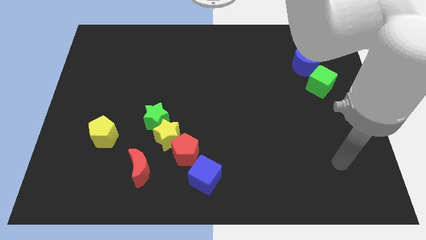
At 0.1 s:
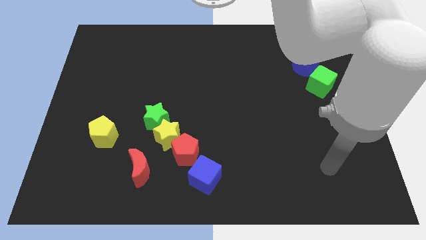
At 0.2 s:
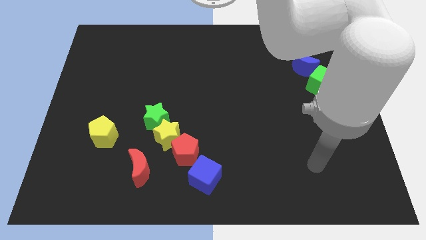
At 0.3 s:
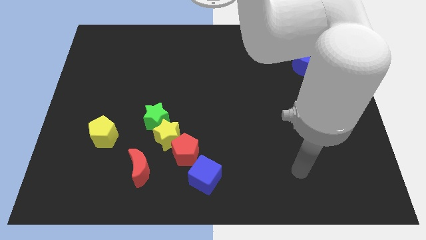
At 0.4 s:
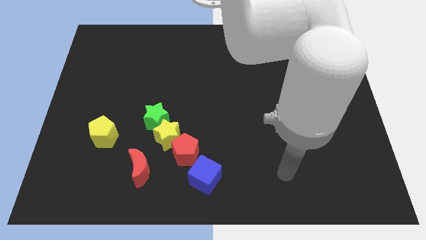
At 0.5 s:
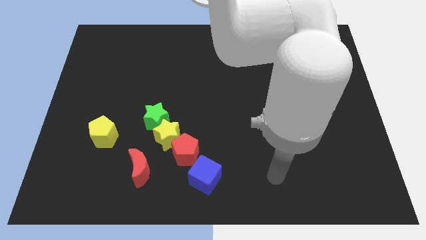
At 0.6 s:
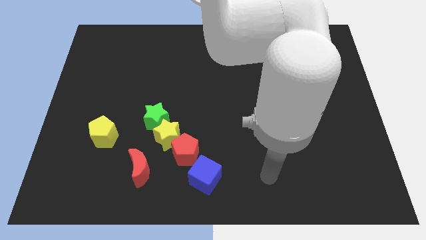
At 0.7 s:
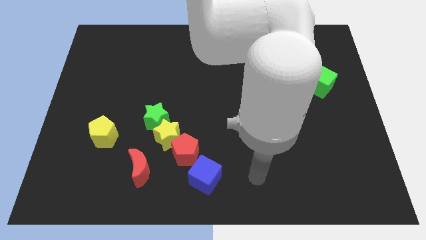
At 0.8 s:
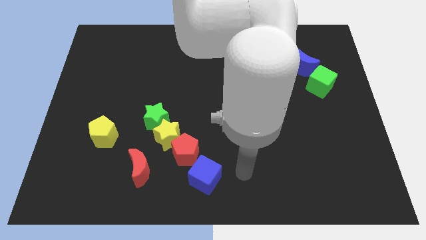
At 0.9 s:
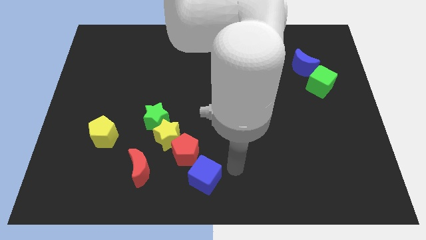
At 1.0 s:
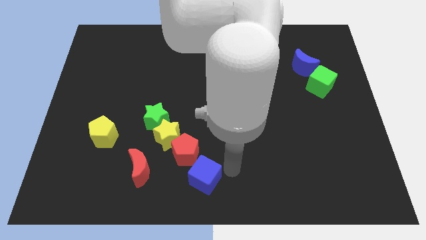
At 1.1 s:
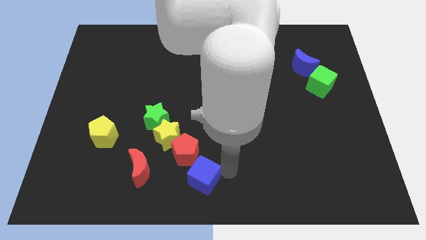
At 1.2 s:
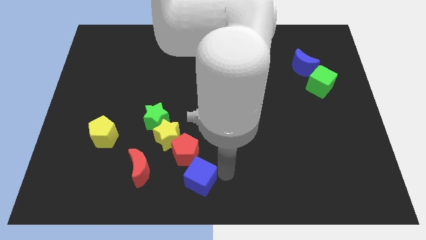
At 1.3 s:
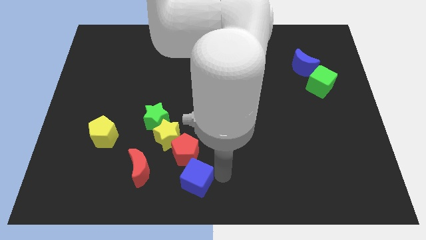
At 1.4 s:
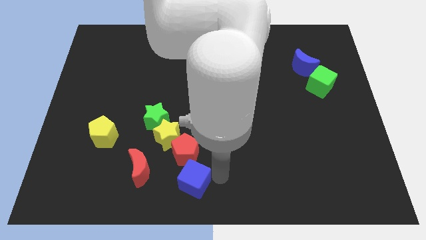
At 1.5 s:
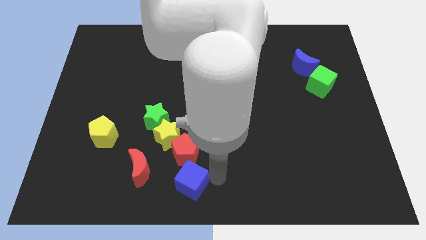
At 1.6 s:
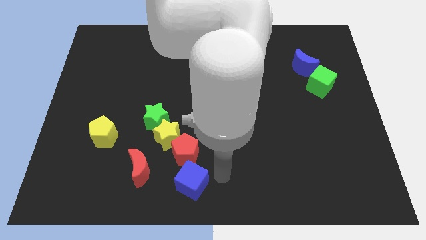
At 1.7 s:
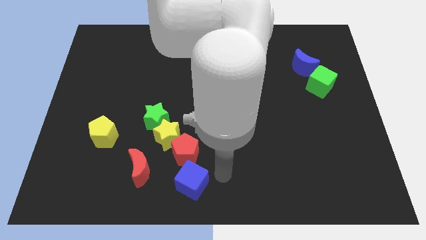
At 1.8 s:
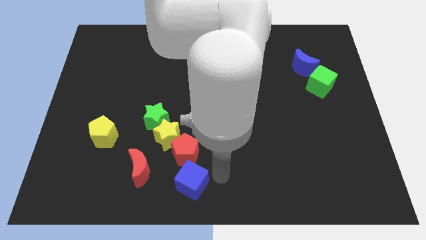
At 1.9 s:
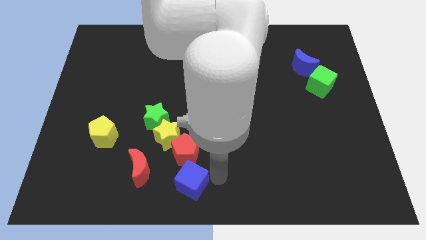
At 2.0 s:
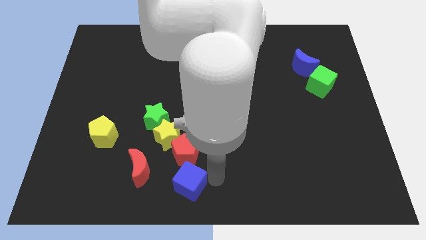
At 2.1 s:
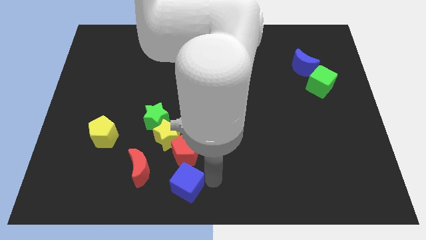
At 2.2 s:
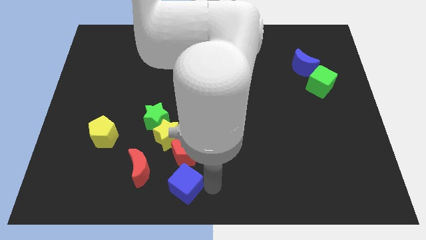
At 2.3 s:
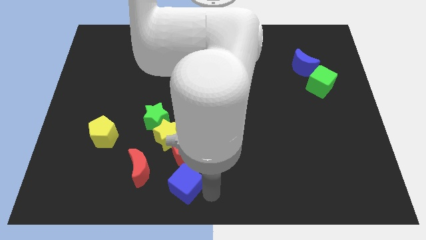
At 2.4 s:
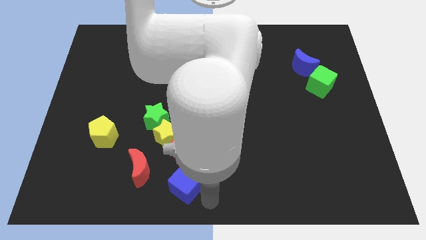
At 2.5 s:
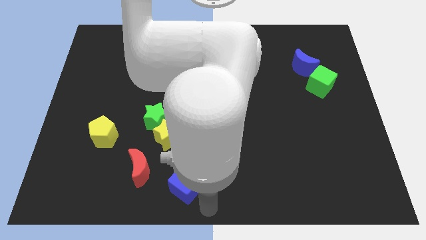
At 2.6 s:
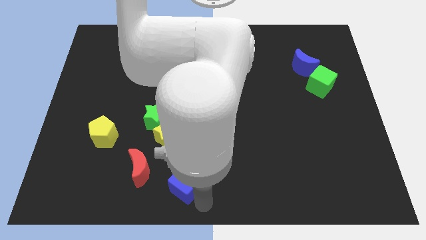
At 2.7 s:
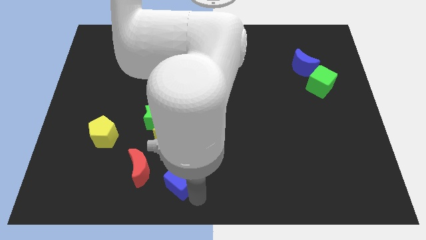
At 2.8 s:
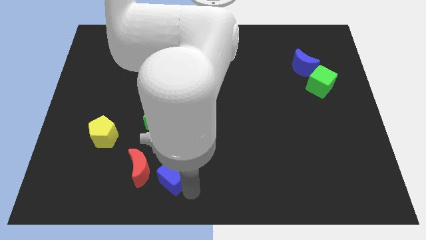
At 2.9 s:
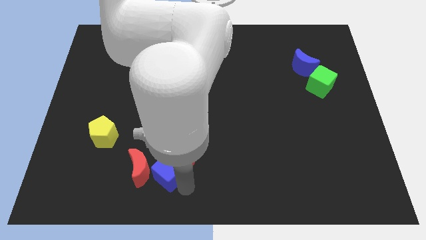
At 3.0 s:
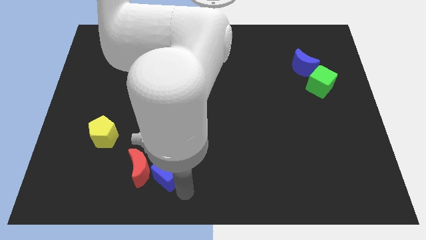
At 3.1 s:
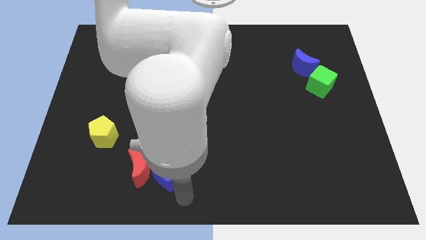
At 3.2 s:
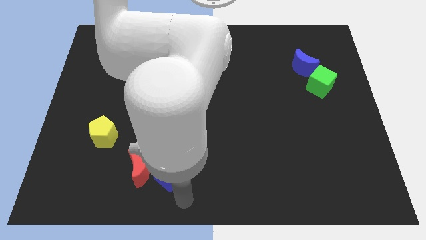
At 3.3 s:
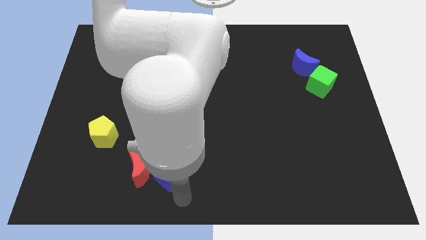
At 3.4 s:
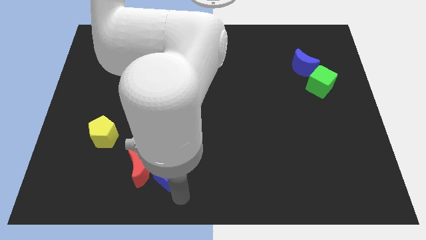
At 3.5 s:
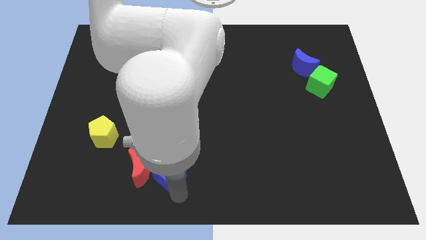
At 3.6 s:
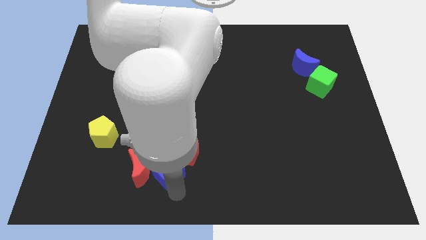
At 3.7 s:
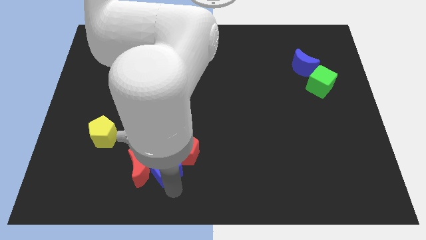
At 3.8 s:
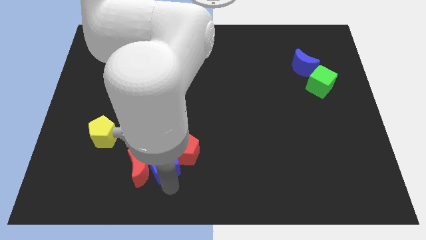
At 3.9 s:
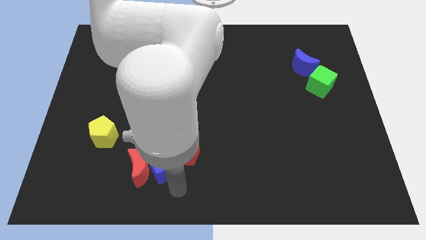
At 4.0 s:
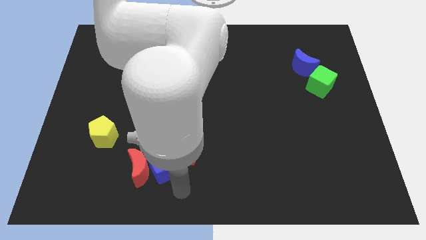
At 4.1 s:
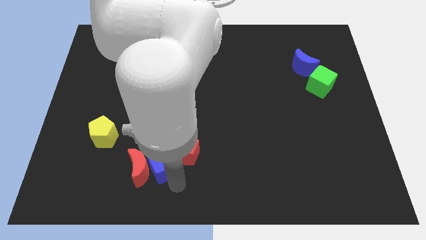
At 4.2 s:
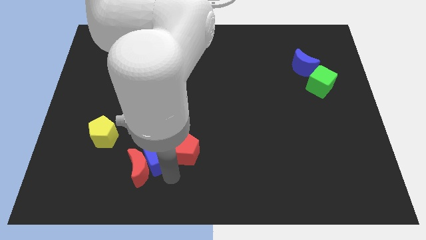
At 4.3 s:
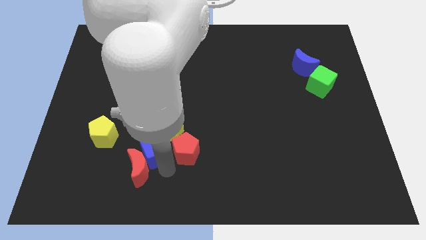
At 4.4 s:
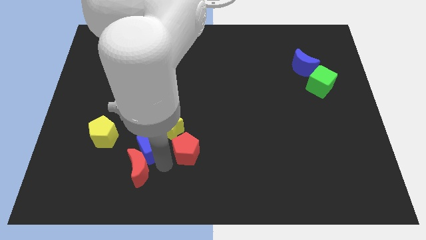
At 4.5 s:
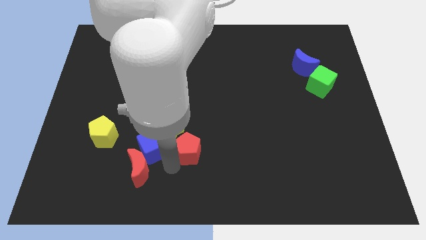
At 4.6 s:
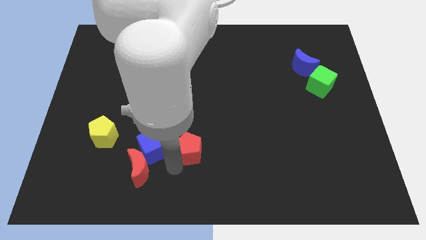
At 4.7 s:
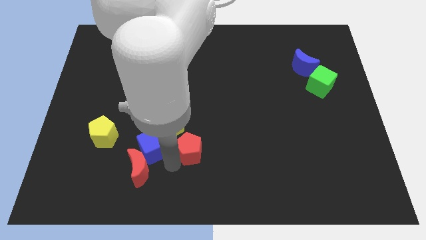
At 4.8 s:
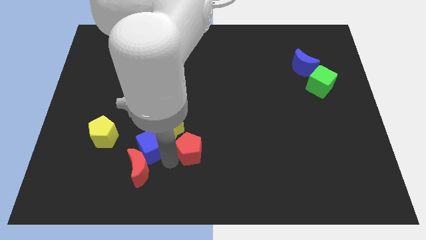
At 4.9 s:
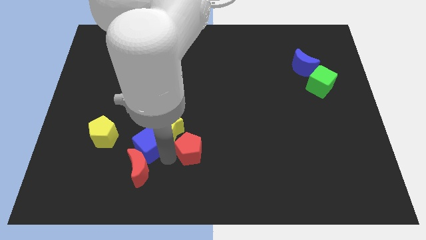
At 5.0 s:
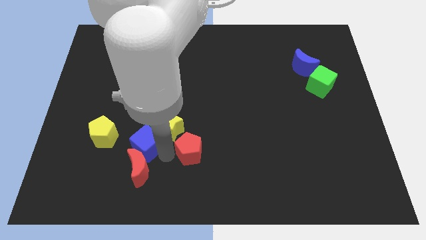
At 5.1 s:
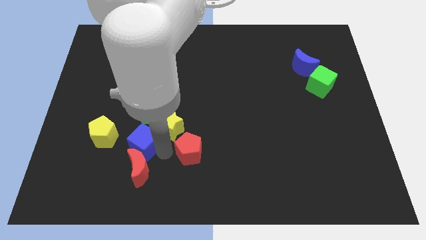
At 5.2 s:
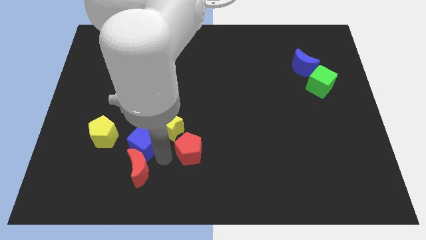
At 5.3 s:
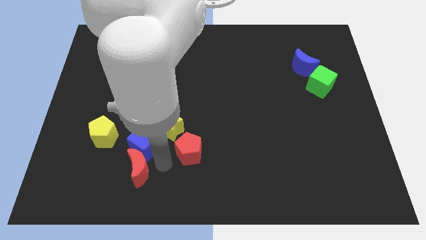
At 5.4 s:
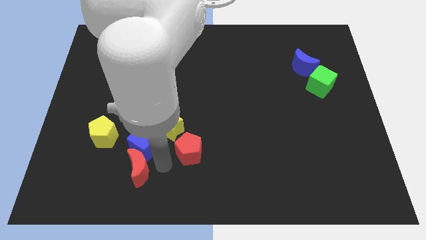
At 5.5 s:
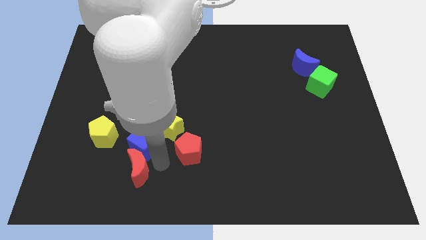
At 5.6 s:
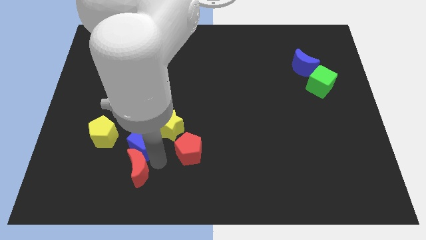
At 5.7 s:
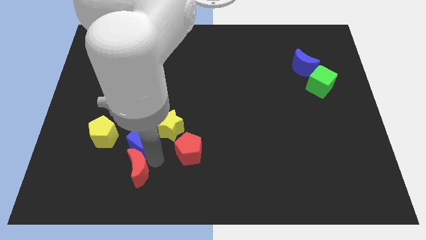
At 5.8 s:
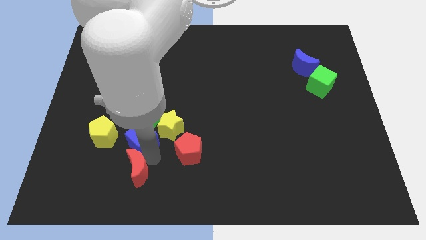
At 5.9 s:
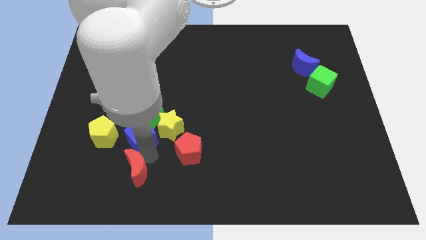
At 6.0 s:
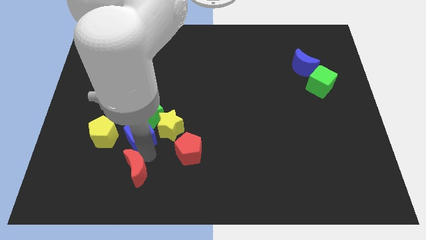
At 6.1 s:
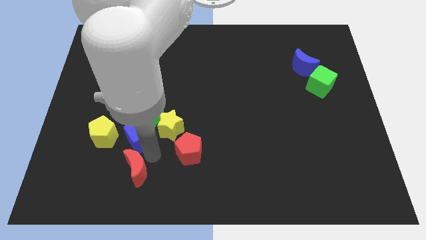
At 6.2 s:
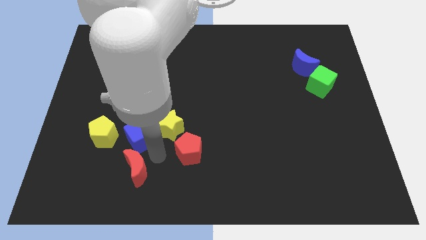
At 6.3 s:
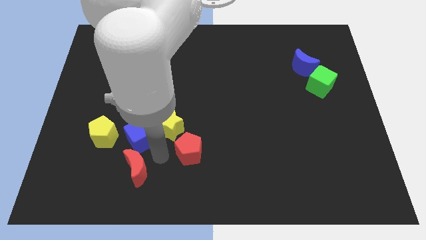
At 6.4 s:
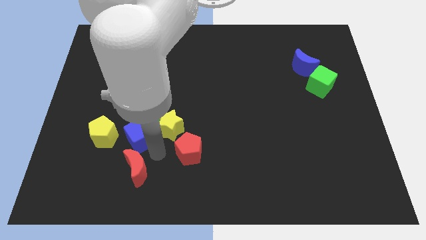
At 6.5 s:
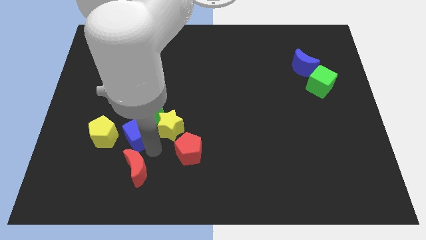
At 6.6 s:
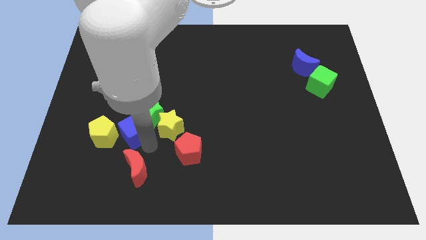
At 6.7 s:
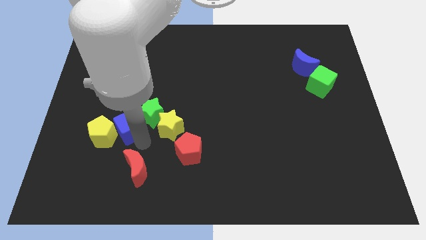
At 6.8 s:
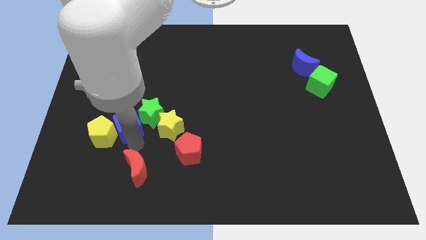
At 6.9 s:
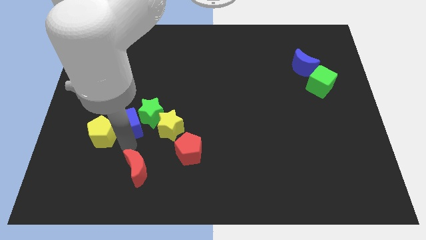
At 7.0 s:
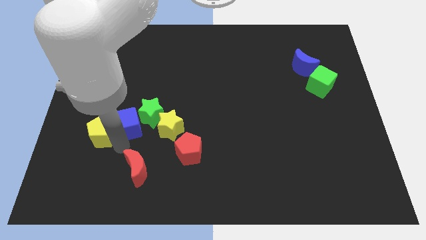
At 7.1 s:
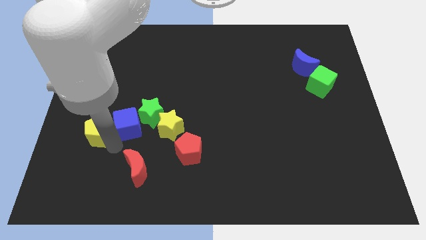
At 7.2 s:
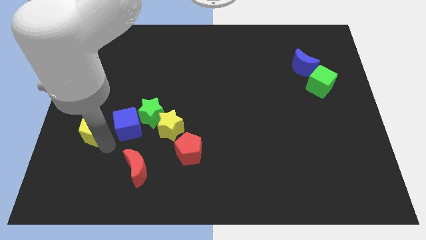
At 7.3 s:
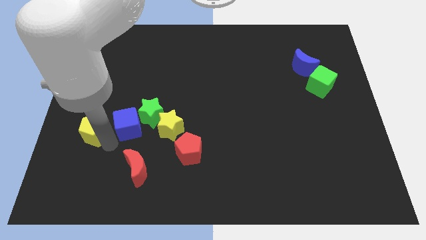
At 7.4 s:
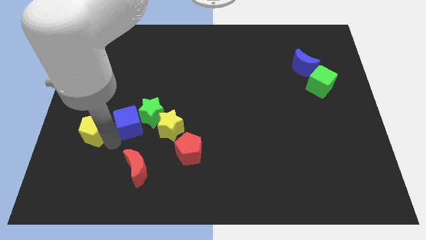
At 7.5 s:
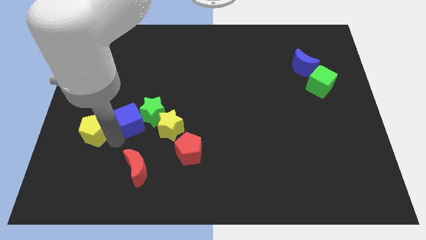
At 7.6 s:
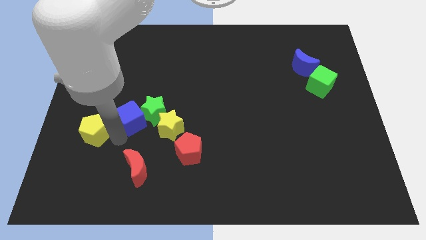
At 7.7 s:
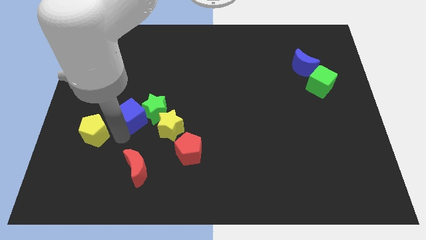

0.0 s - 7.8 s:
put the blue cube diagonally up and to the left of the yellow star
